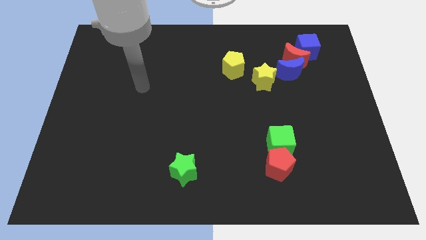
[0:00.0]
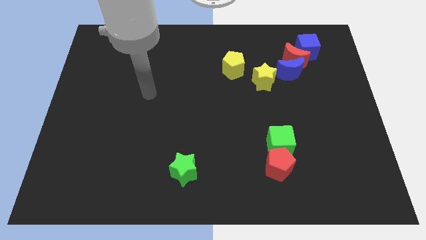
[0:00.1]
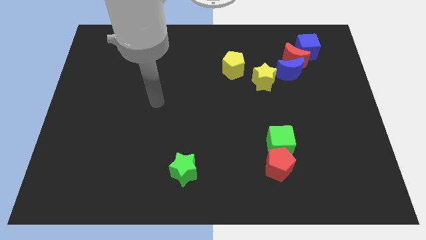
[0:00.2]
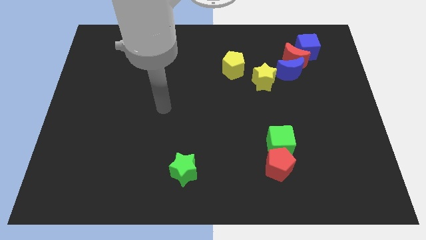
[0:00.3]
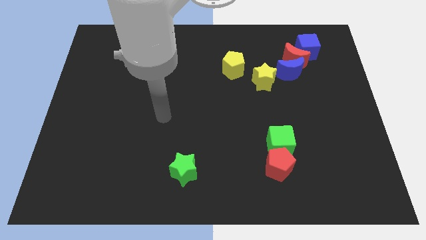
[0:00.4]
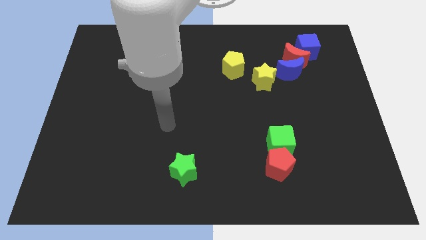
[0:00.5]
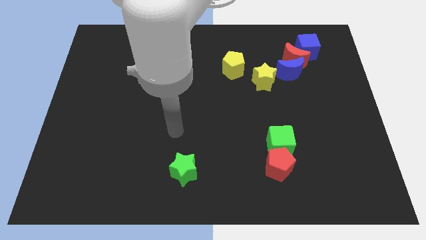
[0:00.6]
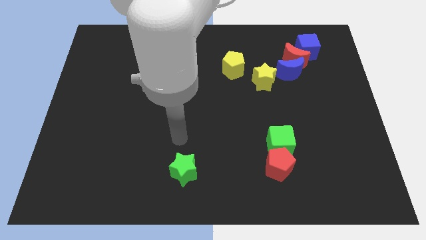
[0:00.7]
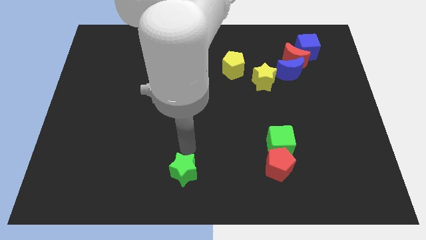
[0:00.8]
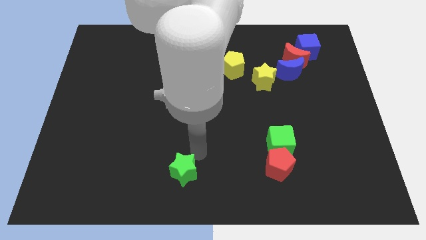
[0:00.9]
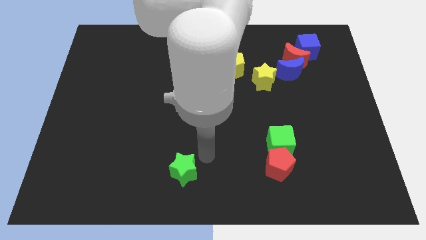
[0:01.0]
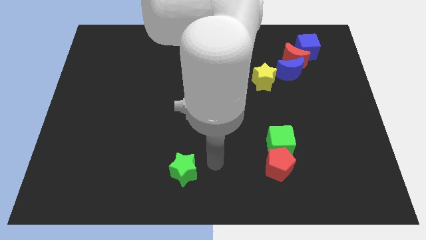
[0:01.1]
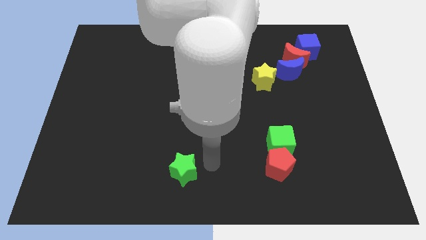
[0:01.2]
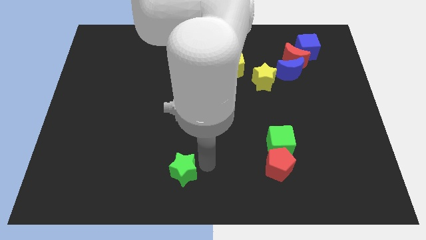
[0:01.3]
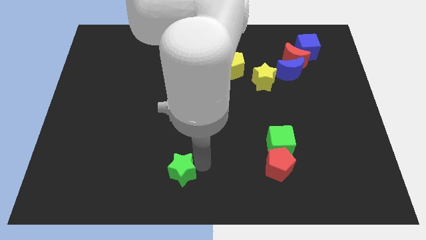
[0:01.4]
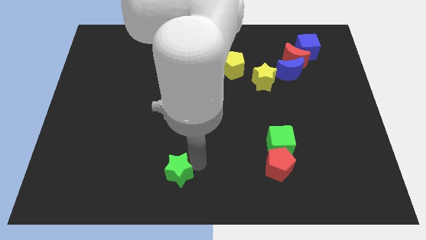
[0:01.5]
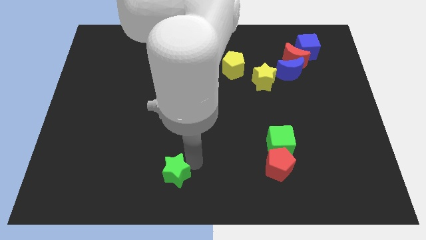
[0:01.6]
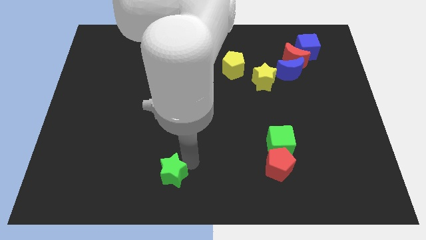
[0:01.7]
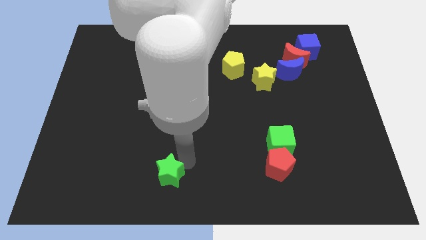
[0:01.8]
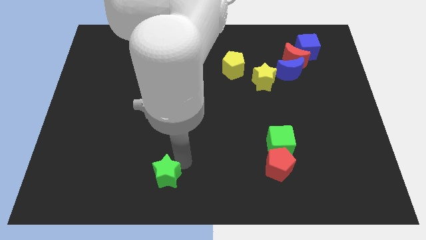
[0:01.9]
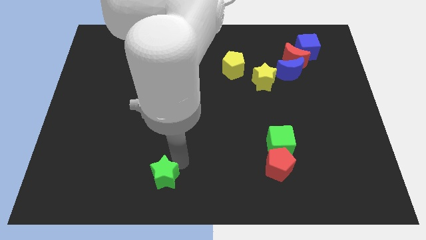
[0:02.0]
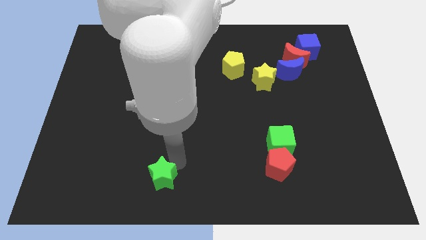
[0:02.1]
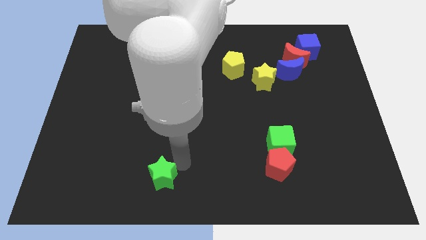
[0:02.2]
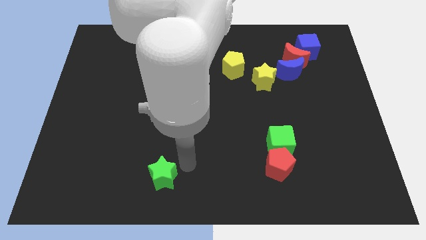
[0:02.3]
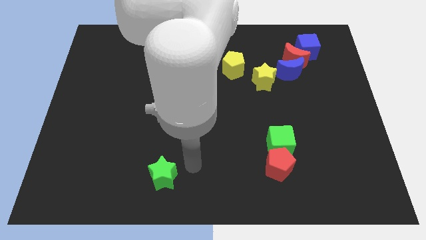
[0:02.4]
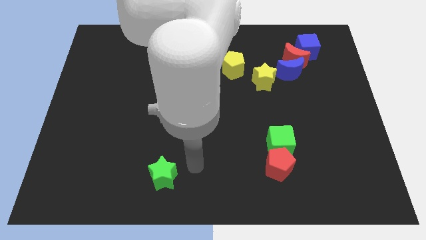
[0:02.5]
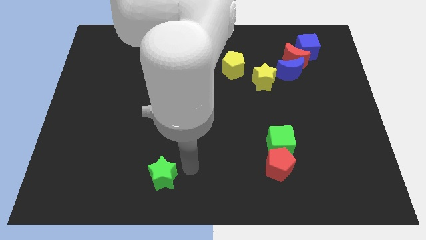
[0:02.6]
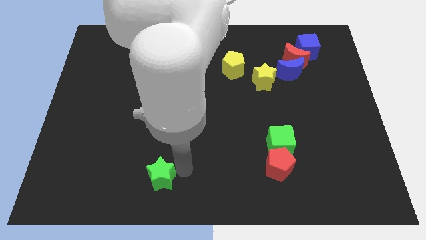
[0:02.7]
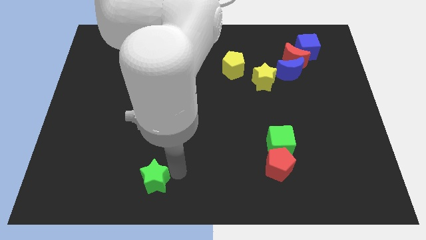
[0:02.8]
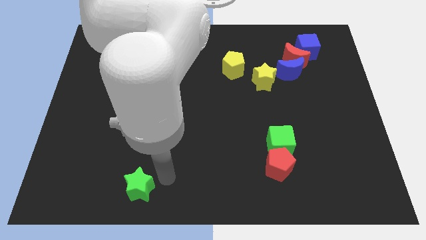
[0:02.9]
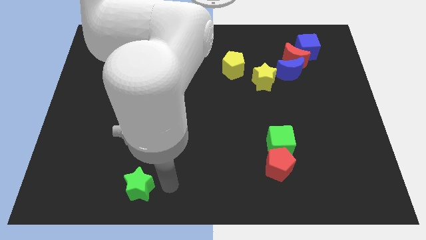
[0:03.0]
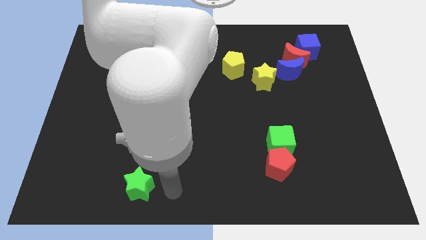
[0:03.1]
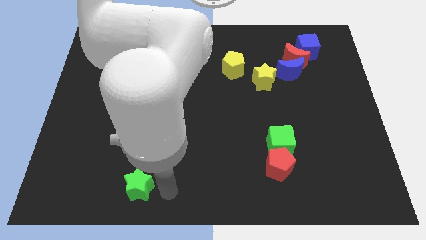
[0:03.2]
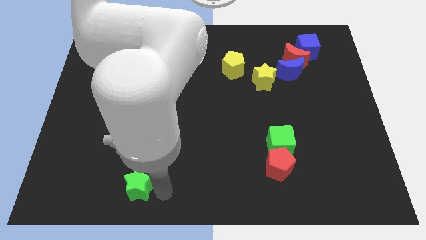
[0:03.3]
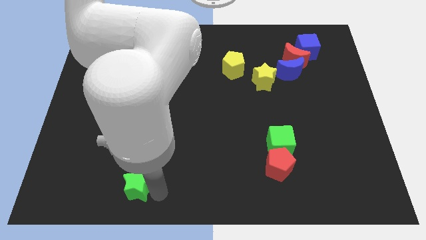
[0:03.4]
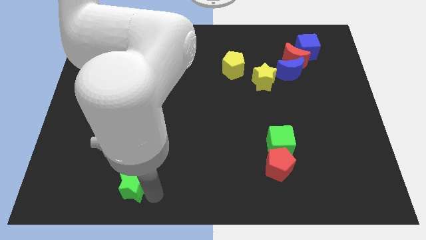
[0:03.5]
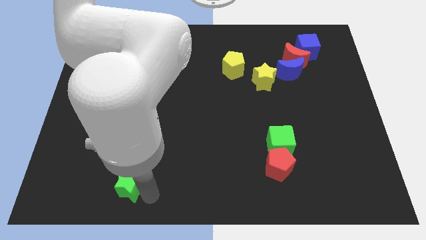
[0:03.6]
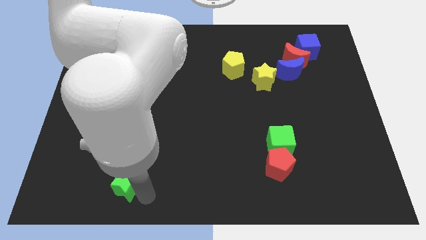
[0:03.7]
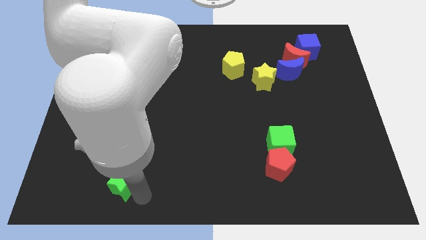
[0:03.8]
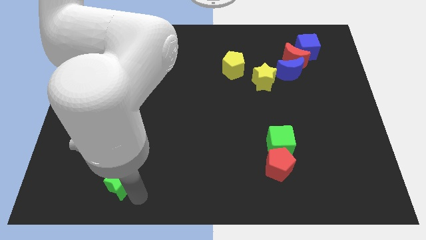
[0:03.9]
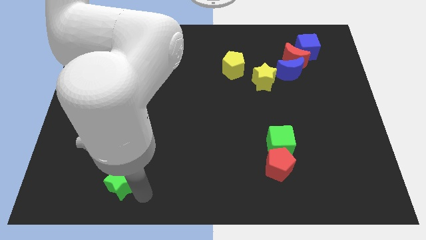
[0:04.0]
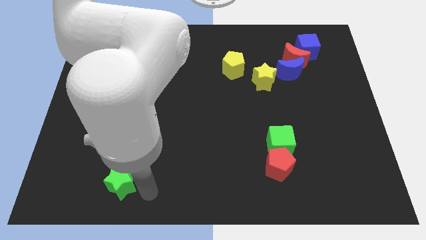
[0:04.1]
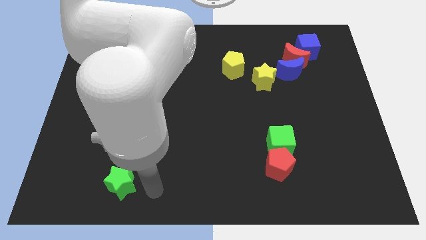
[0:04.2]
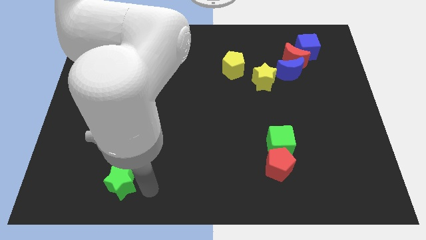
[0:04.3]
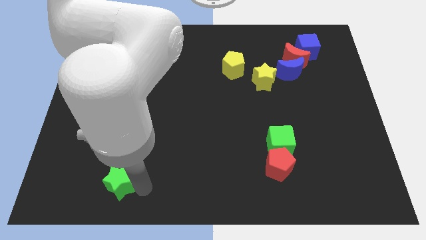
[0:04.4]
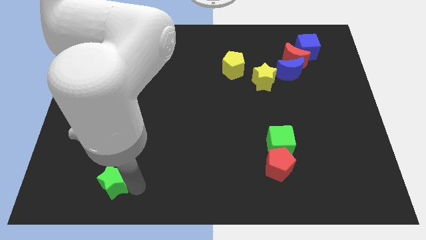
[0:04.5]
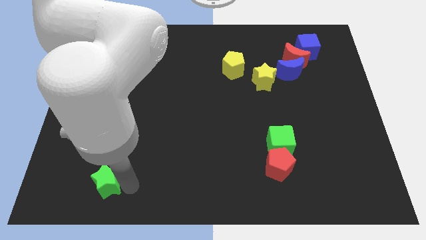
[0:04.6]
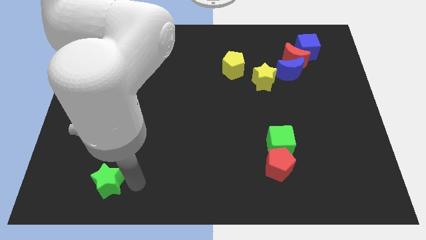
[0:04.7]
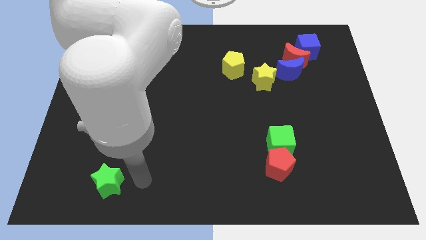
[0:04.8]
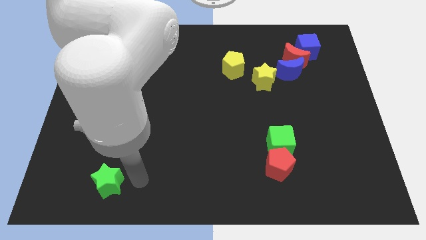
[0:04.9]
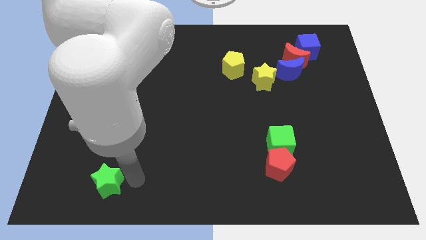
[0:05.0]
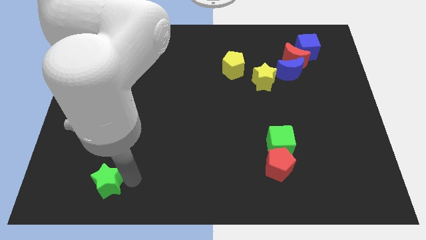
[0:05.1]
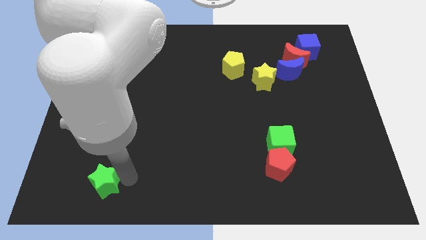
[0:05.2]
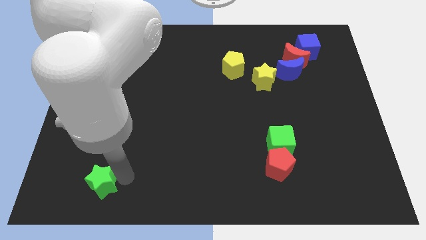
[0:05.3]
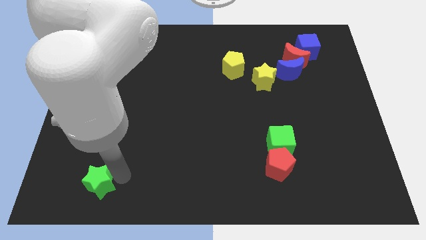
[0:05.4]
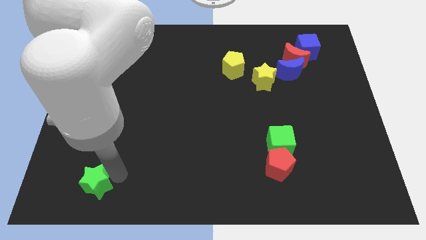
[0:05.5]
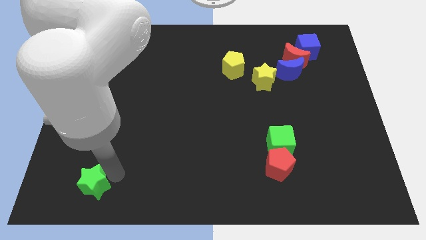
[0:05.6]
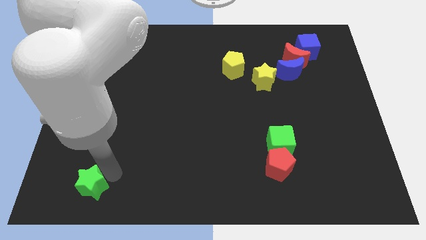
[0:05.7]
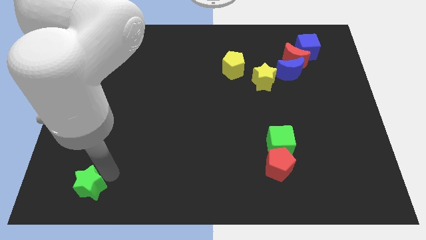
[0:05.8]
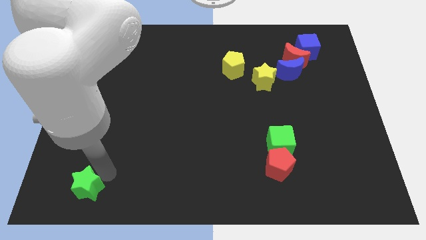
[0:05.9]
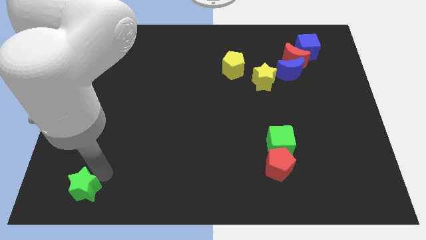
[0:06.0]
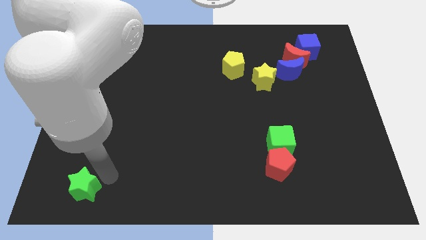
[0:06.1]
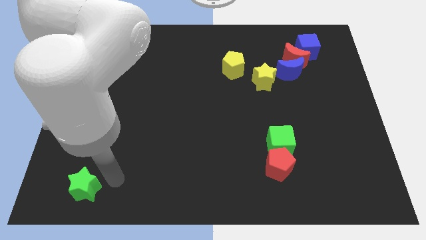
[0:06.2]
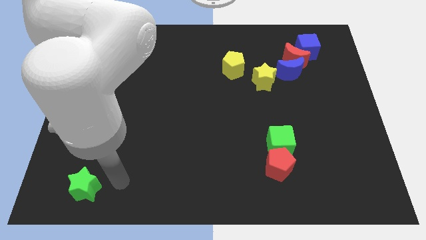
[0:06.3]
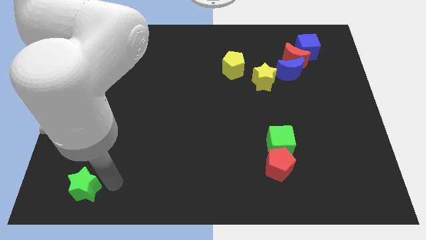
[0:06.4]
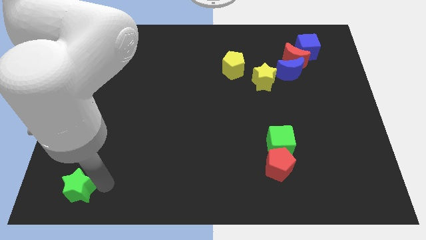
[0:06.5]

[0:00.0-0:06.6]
slide the green star to the bottom left corner

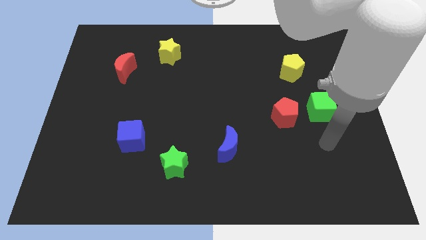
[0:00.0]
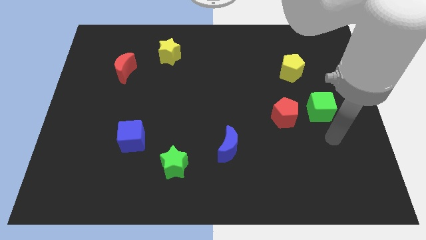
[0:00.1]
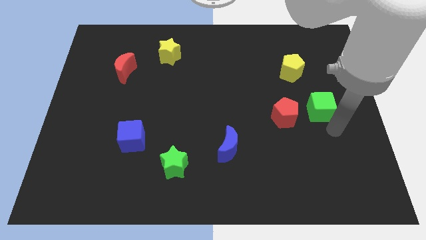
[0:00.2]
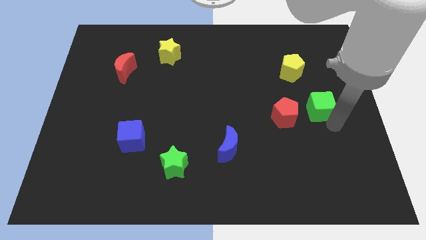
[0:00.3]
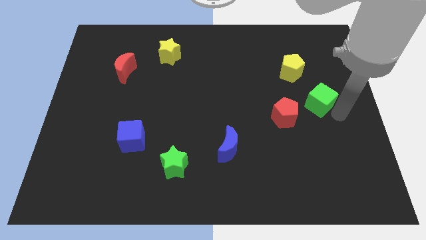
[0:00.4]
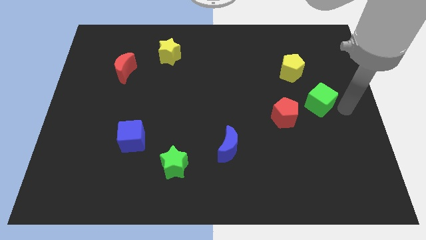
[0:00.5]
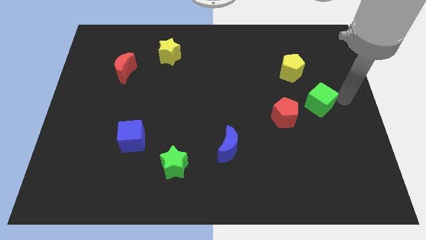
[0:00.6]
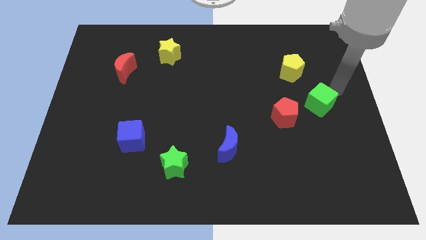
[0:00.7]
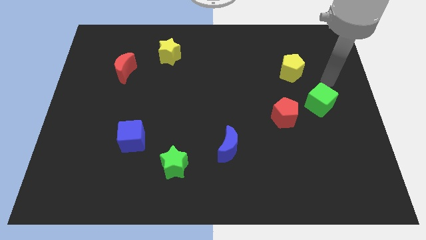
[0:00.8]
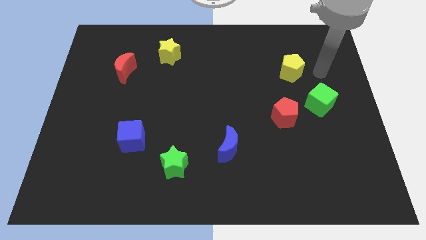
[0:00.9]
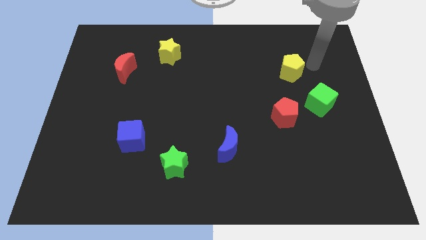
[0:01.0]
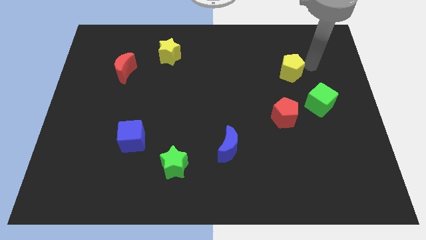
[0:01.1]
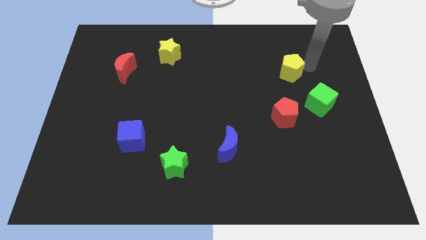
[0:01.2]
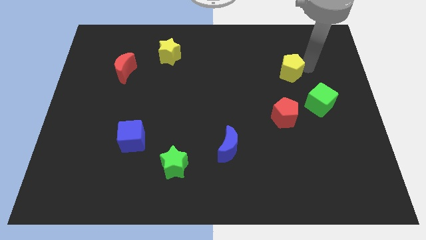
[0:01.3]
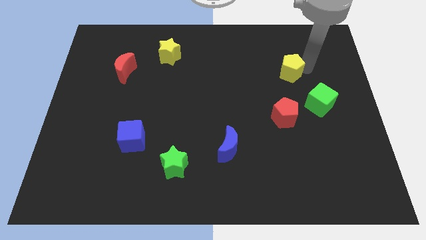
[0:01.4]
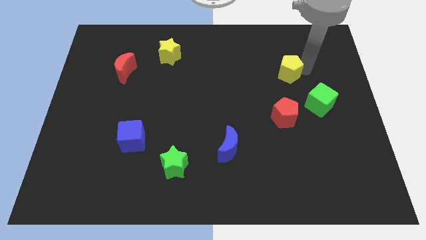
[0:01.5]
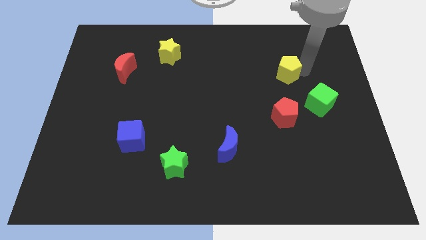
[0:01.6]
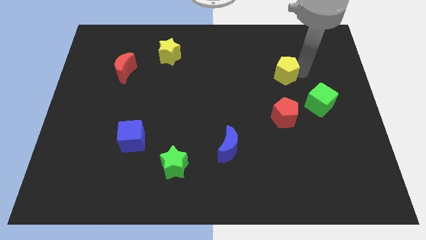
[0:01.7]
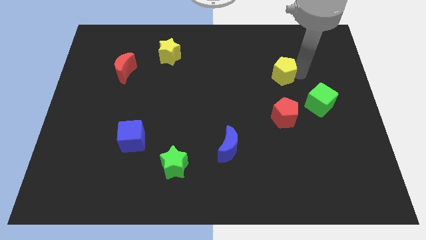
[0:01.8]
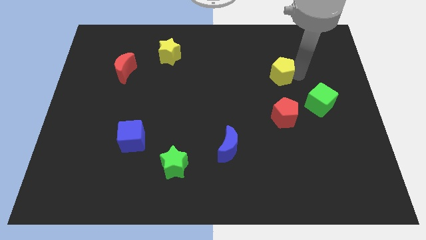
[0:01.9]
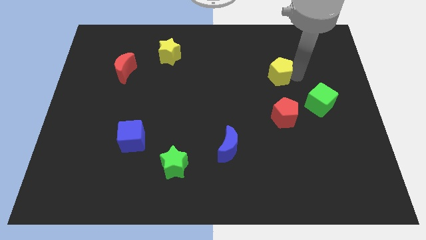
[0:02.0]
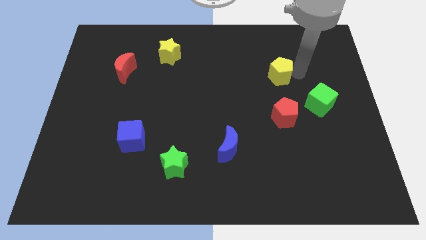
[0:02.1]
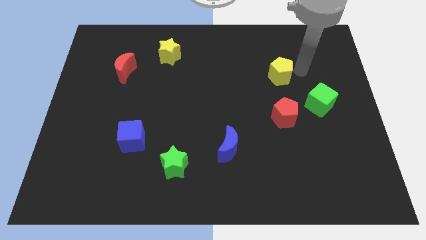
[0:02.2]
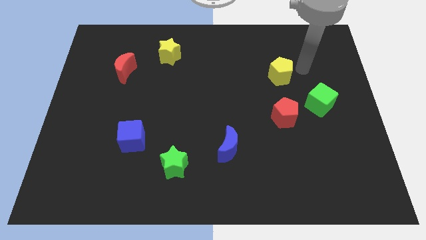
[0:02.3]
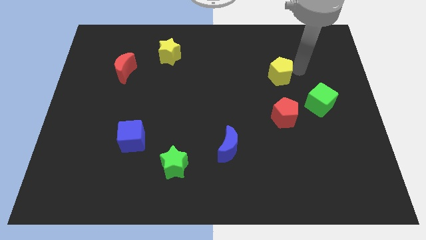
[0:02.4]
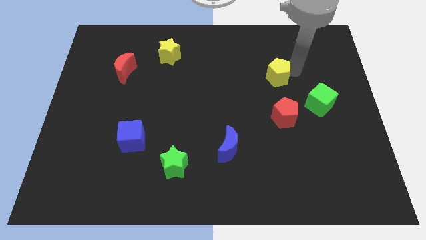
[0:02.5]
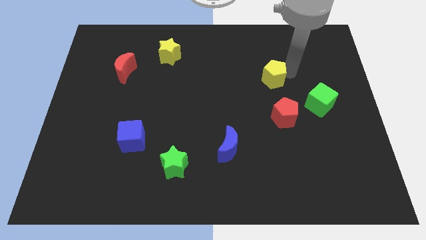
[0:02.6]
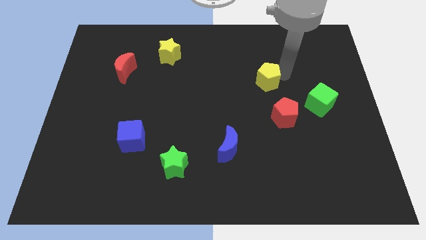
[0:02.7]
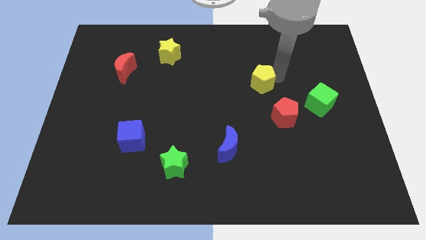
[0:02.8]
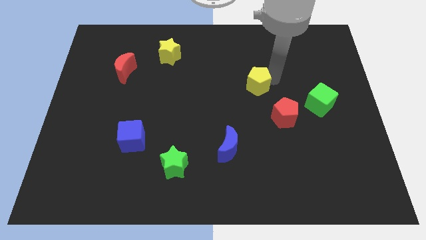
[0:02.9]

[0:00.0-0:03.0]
move the yellow pentagon to the middle
